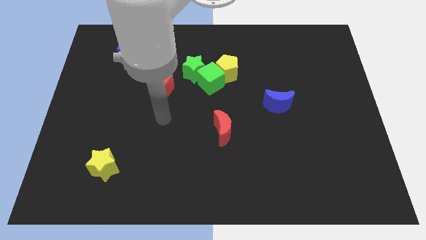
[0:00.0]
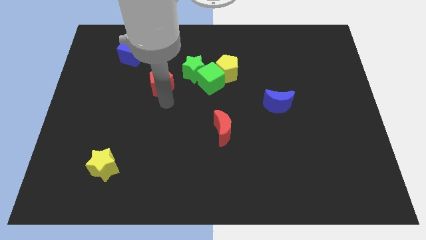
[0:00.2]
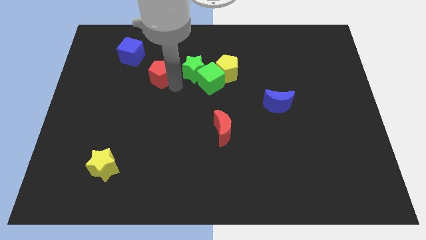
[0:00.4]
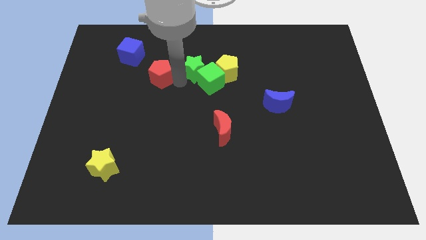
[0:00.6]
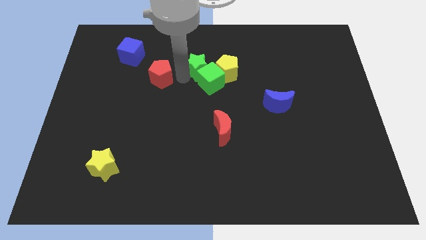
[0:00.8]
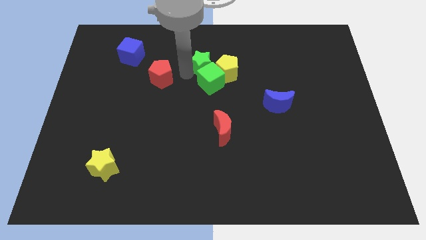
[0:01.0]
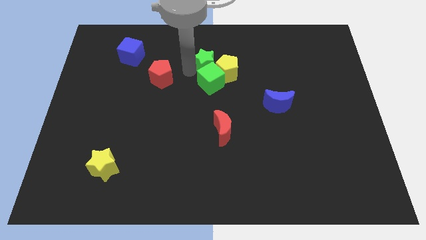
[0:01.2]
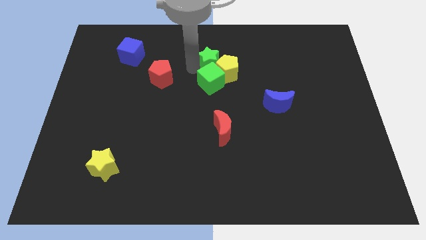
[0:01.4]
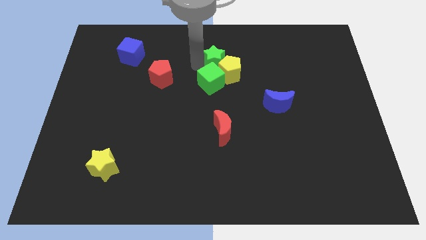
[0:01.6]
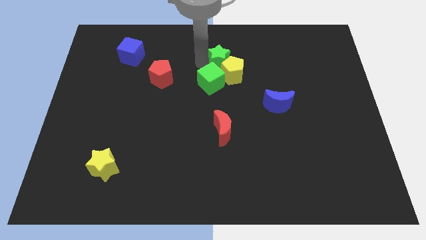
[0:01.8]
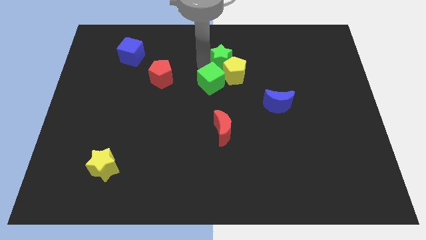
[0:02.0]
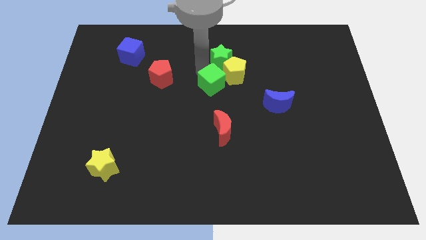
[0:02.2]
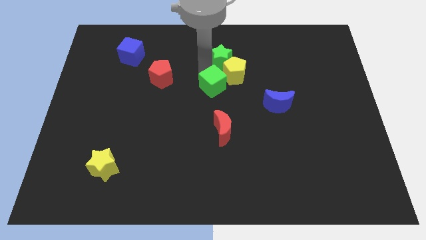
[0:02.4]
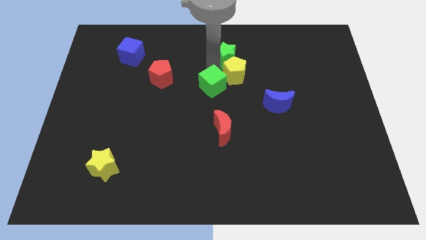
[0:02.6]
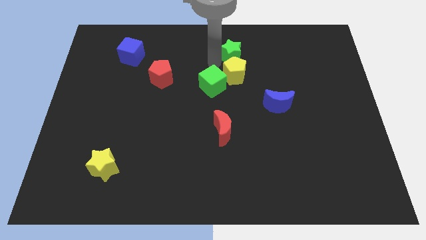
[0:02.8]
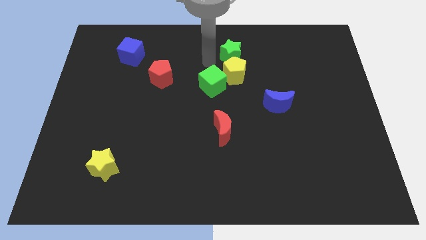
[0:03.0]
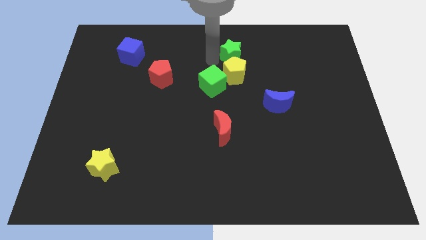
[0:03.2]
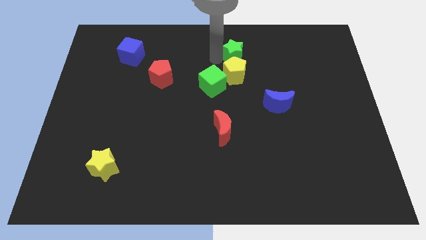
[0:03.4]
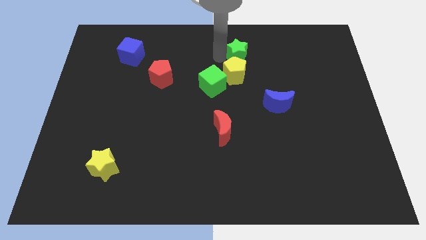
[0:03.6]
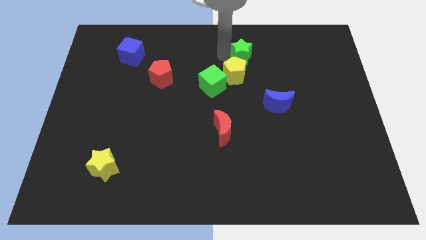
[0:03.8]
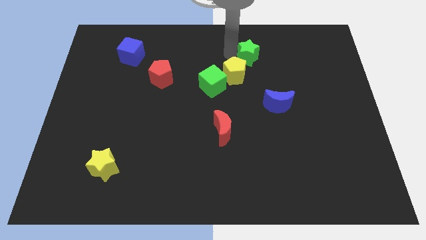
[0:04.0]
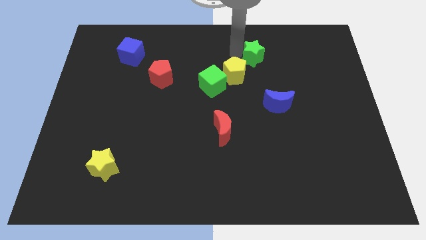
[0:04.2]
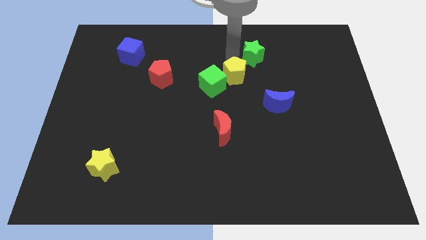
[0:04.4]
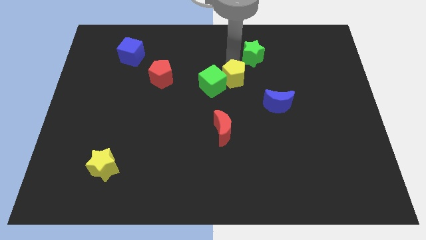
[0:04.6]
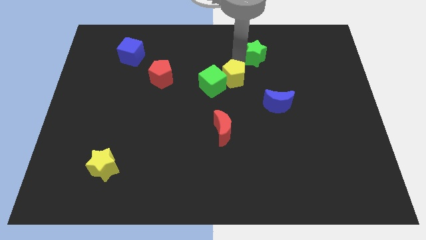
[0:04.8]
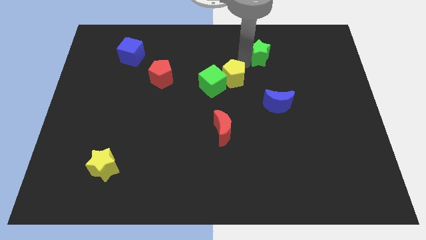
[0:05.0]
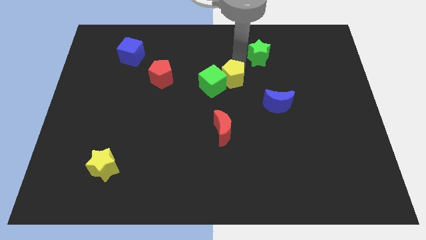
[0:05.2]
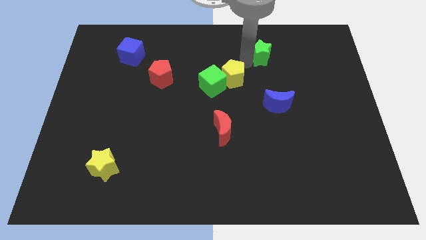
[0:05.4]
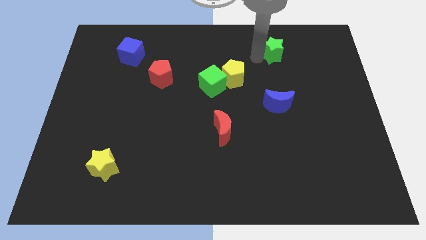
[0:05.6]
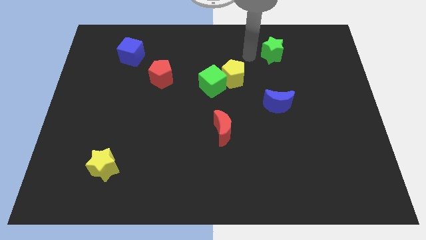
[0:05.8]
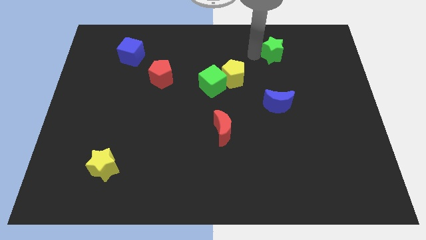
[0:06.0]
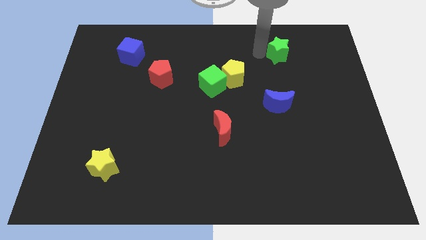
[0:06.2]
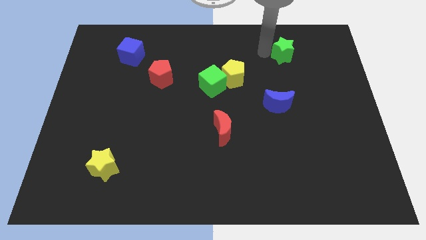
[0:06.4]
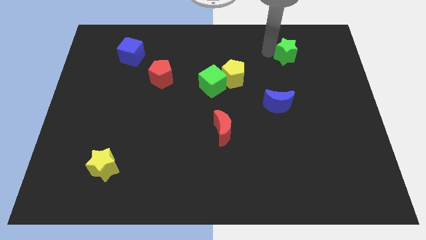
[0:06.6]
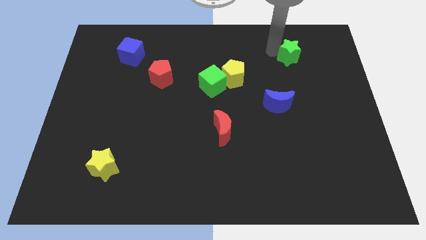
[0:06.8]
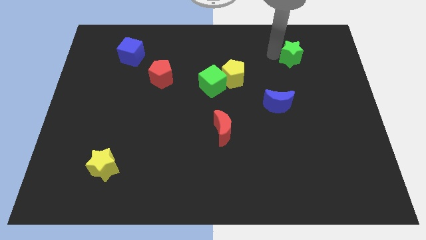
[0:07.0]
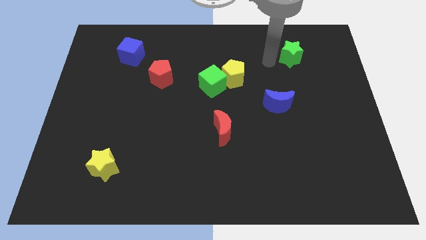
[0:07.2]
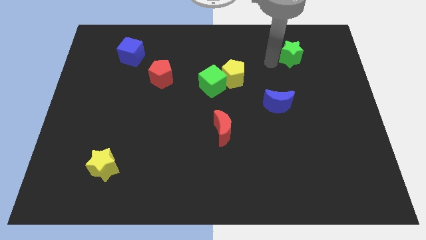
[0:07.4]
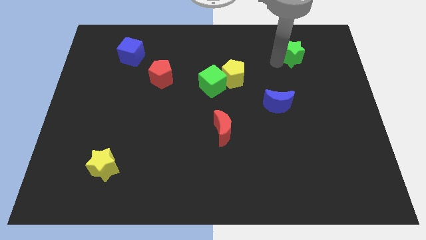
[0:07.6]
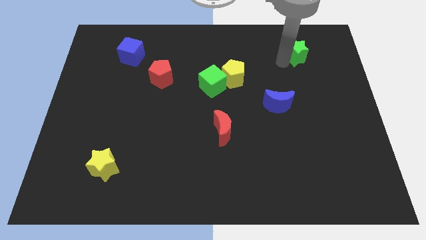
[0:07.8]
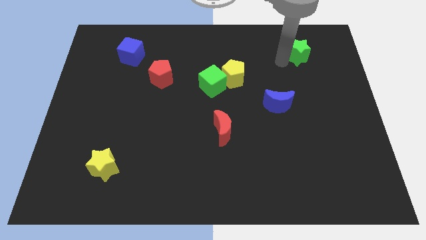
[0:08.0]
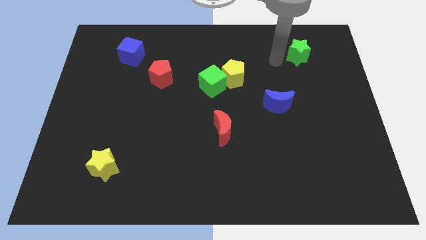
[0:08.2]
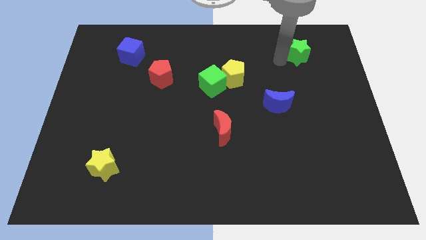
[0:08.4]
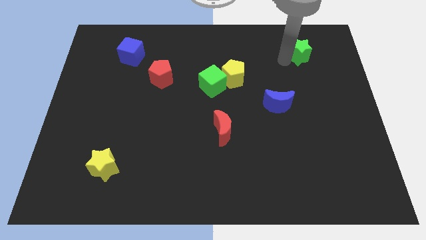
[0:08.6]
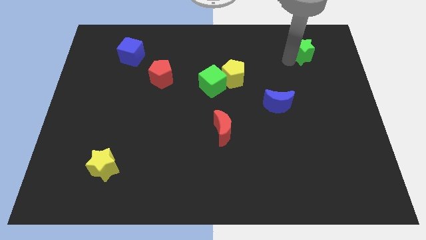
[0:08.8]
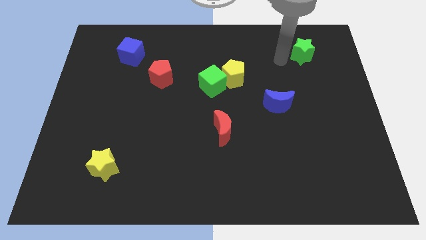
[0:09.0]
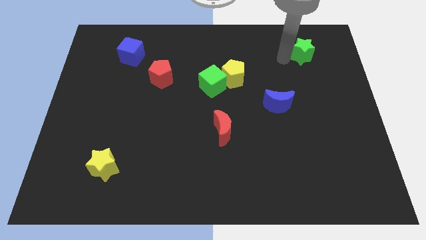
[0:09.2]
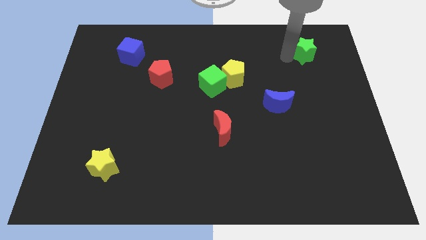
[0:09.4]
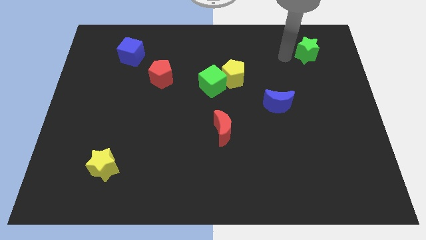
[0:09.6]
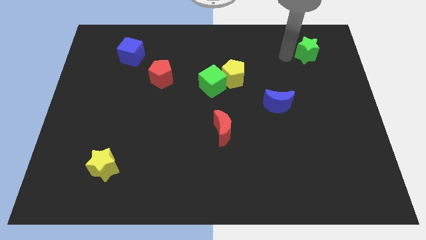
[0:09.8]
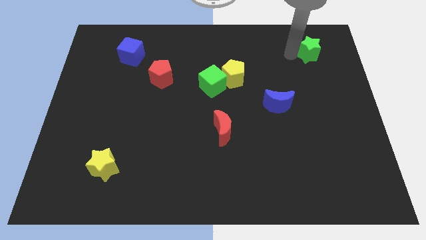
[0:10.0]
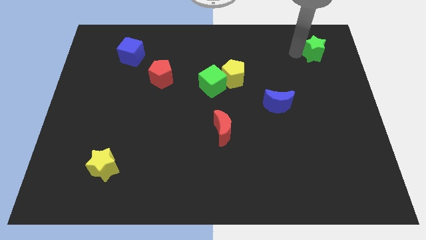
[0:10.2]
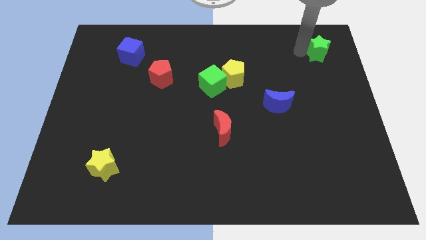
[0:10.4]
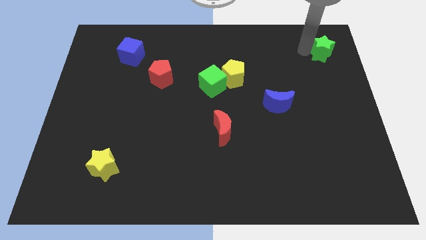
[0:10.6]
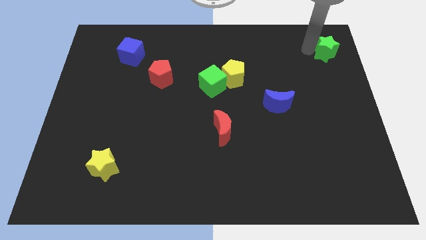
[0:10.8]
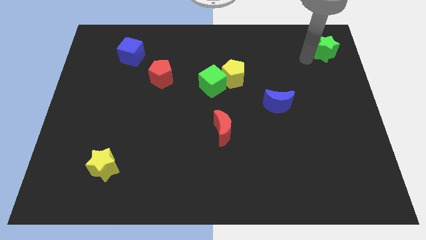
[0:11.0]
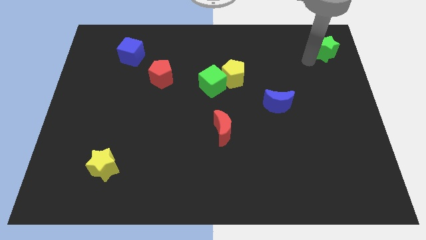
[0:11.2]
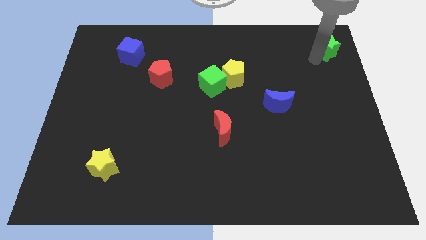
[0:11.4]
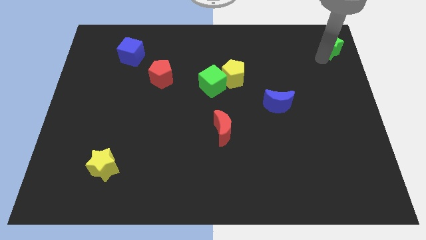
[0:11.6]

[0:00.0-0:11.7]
push the green star to the top right corner
